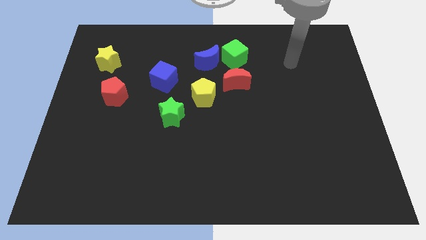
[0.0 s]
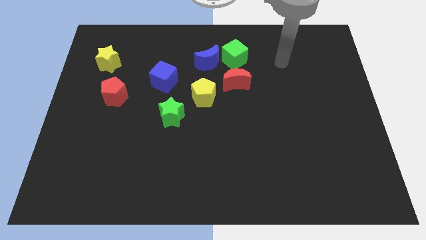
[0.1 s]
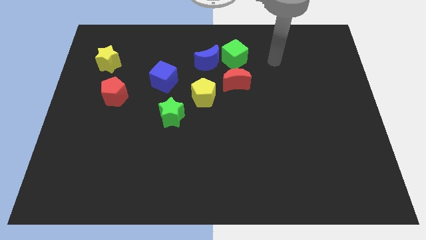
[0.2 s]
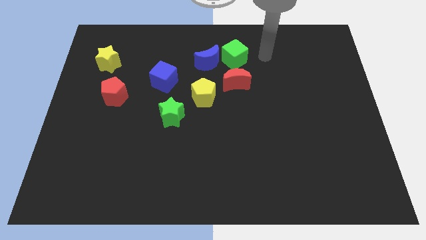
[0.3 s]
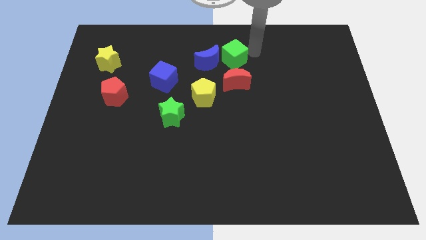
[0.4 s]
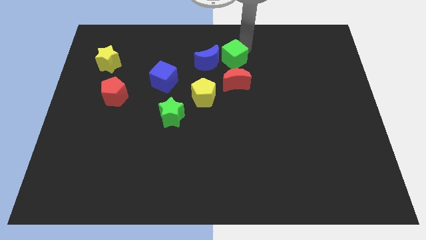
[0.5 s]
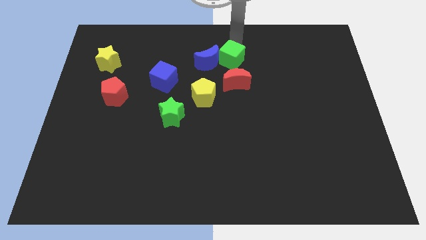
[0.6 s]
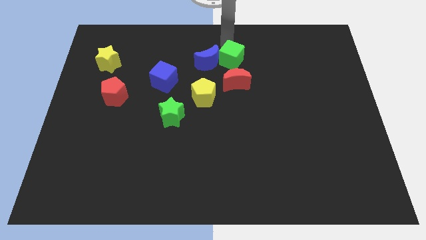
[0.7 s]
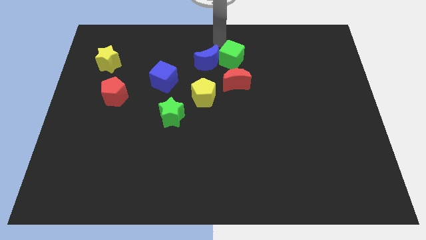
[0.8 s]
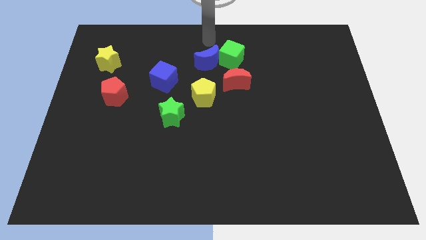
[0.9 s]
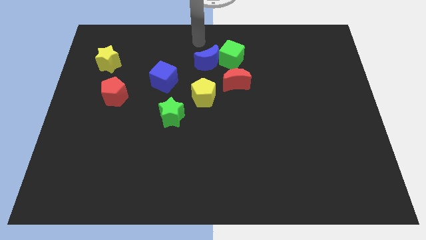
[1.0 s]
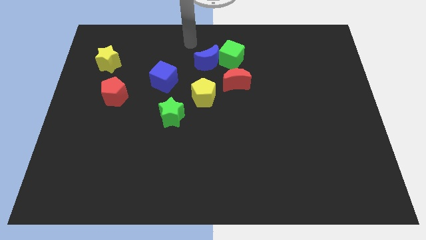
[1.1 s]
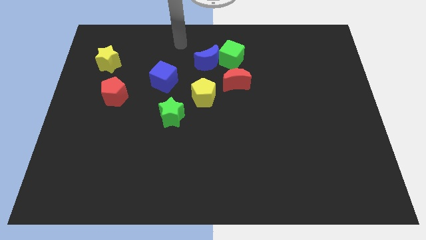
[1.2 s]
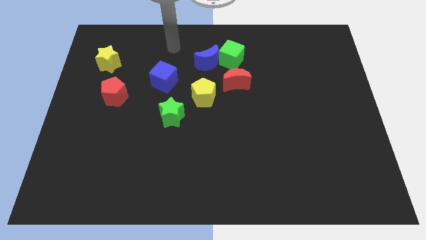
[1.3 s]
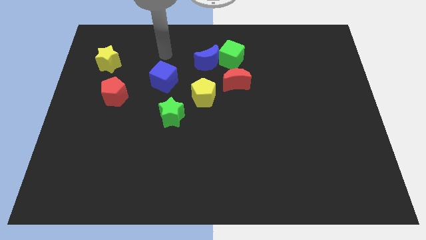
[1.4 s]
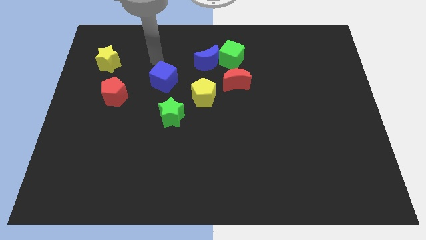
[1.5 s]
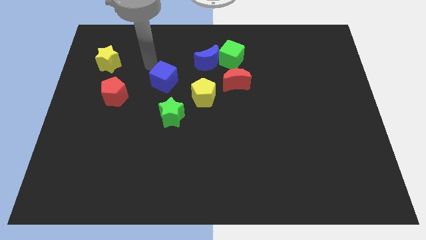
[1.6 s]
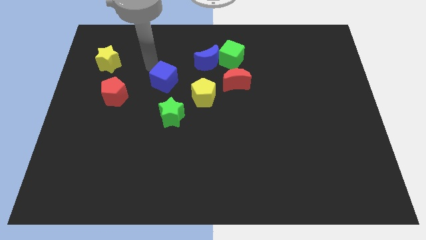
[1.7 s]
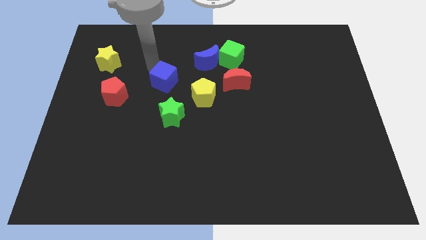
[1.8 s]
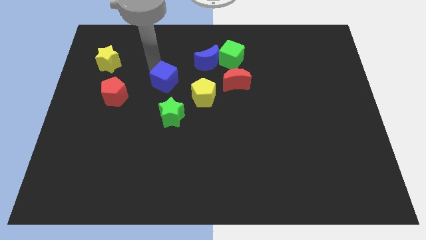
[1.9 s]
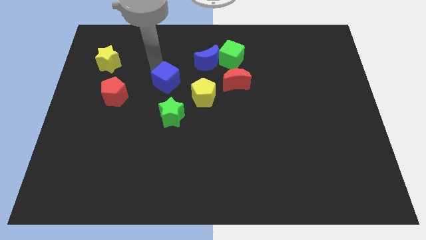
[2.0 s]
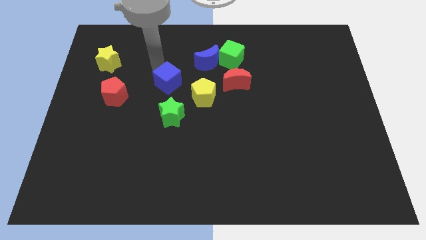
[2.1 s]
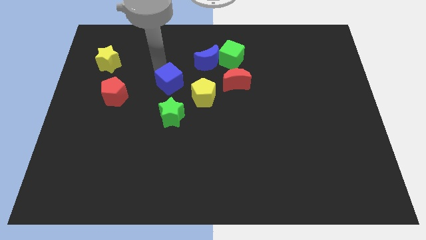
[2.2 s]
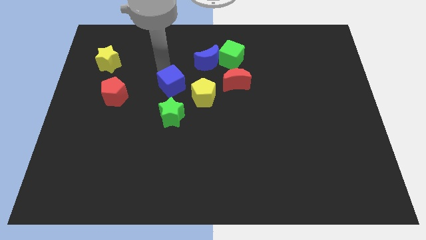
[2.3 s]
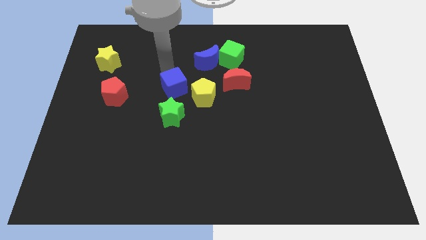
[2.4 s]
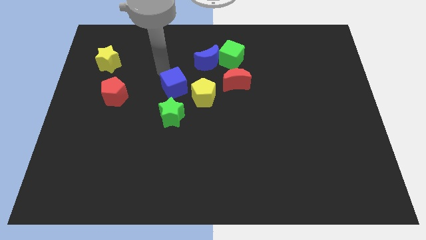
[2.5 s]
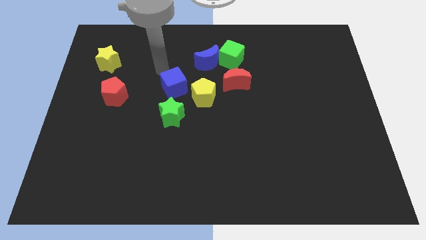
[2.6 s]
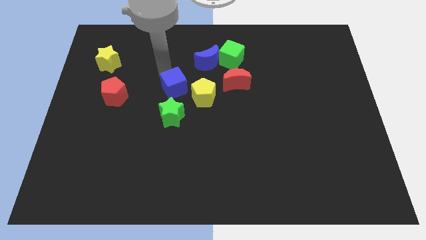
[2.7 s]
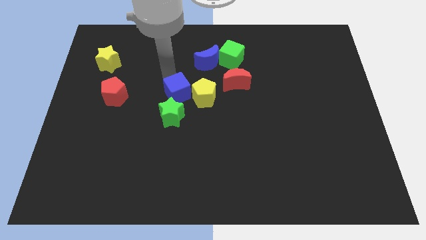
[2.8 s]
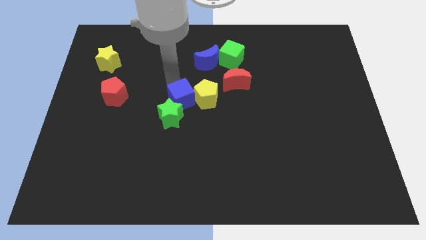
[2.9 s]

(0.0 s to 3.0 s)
move the blue cube somewhat diagonally downwards and to the right

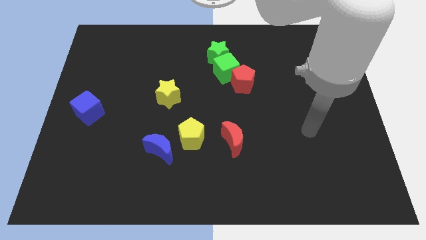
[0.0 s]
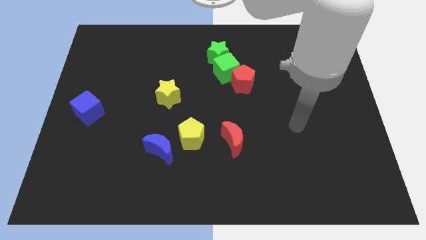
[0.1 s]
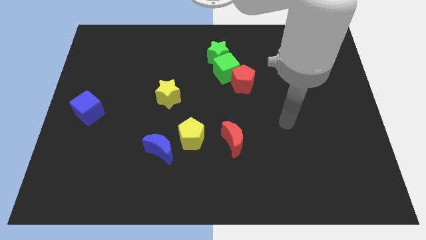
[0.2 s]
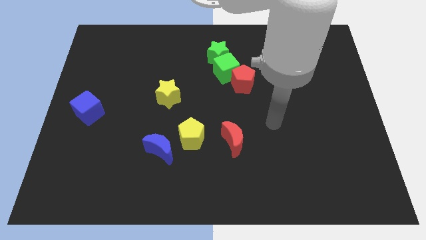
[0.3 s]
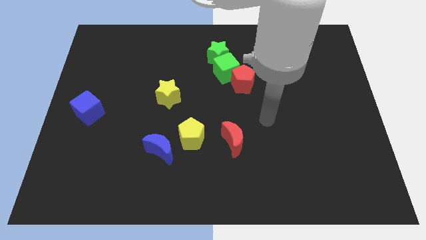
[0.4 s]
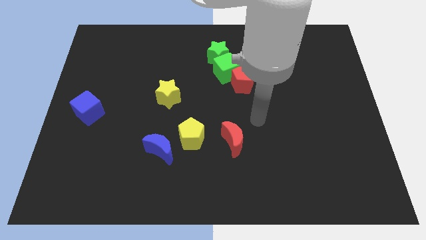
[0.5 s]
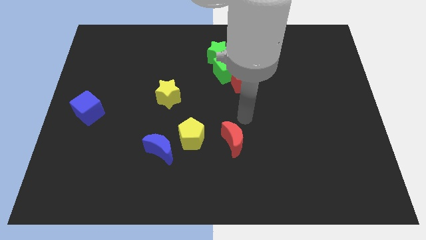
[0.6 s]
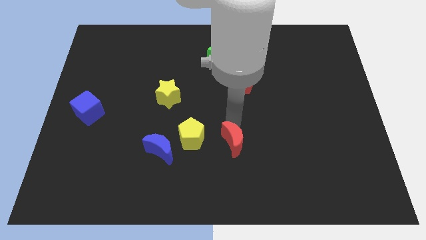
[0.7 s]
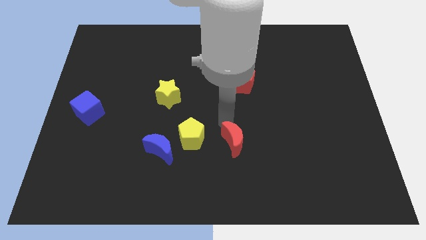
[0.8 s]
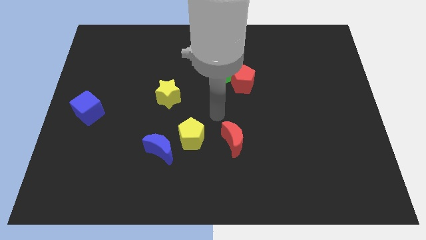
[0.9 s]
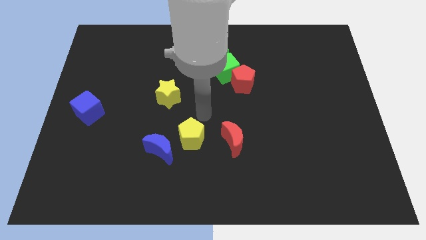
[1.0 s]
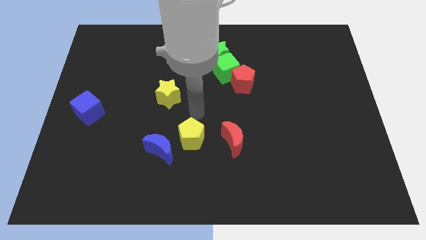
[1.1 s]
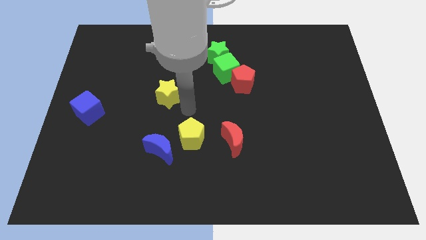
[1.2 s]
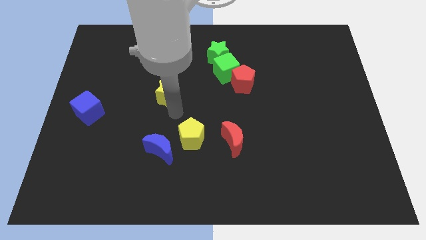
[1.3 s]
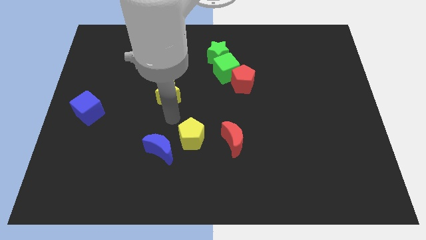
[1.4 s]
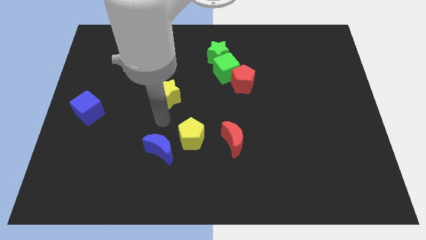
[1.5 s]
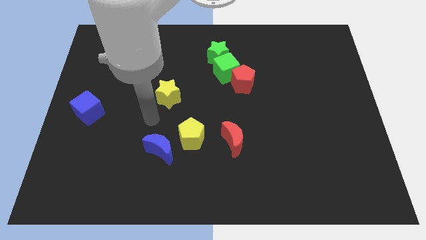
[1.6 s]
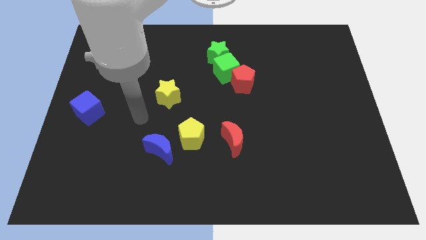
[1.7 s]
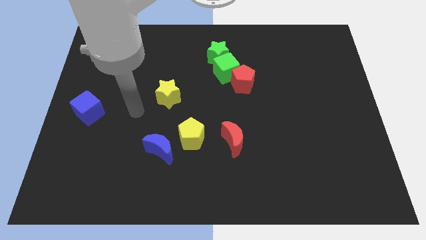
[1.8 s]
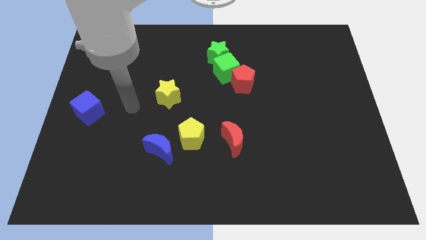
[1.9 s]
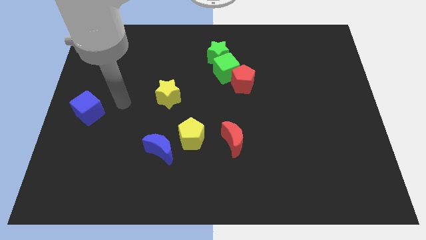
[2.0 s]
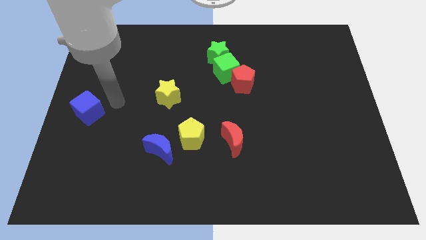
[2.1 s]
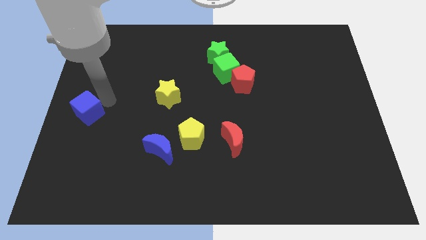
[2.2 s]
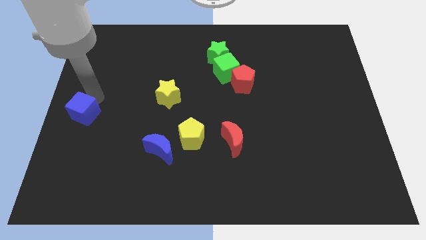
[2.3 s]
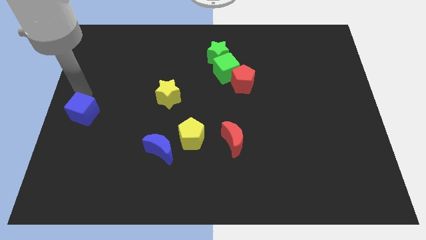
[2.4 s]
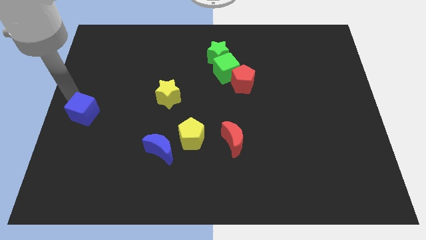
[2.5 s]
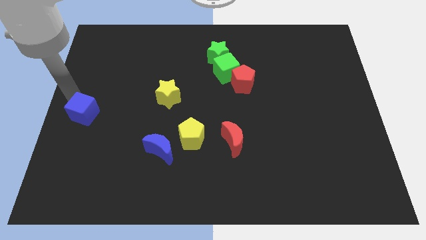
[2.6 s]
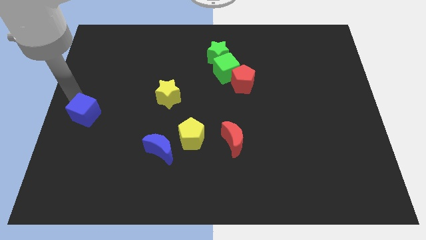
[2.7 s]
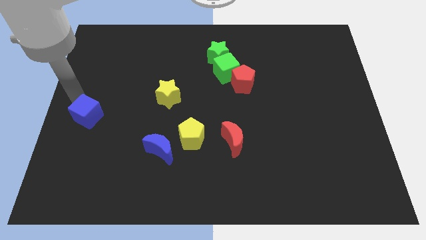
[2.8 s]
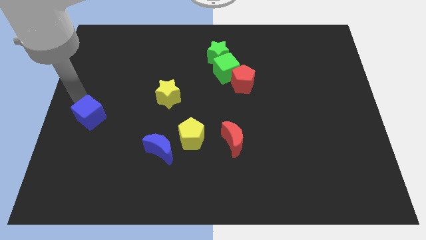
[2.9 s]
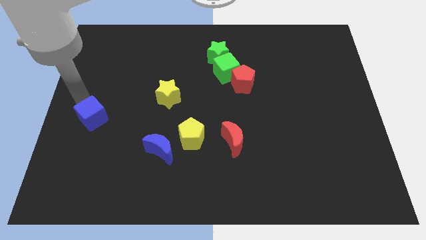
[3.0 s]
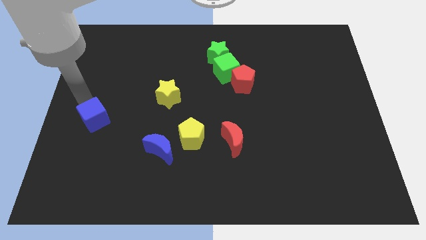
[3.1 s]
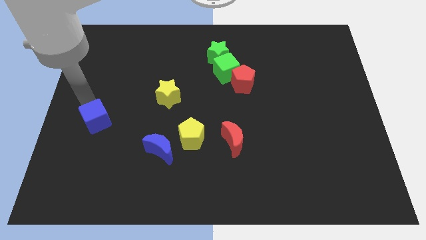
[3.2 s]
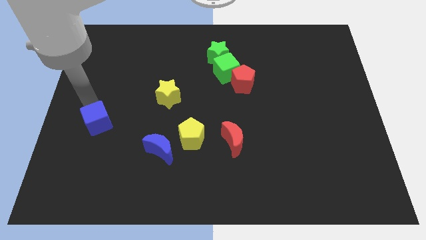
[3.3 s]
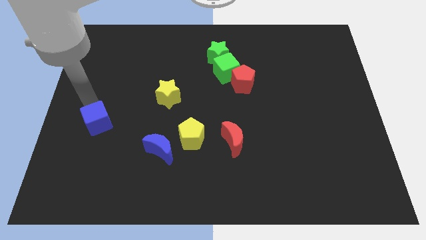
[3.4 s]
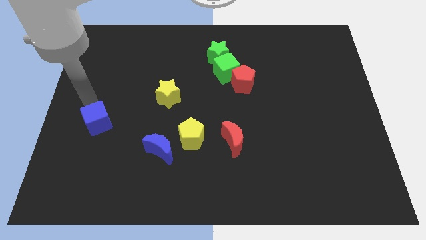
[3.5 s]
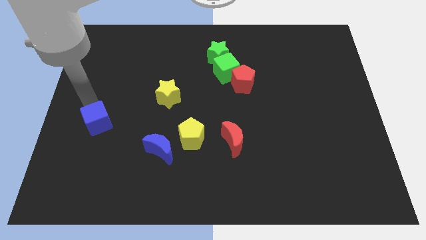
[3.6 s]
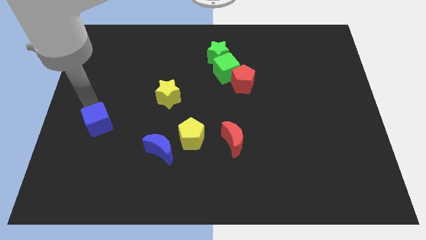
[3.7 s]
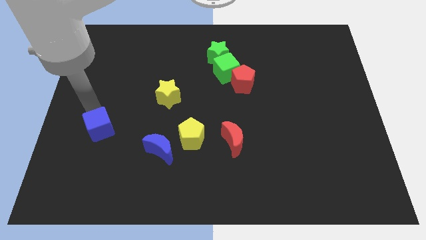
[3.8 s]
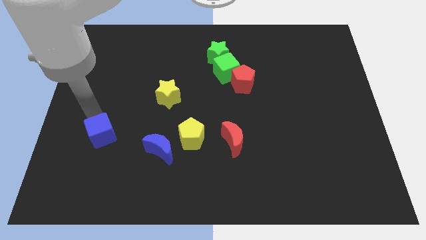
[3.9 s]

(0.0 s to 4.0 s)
slide the blue cube downwards and right a little bit

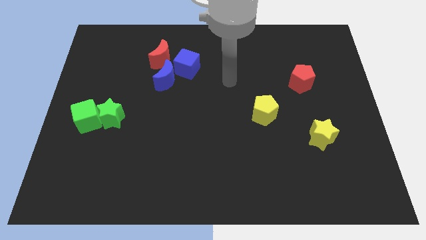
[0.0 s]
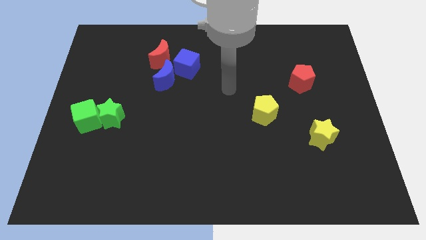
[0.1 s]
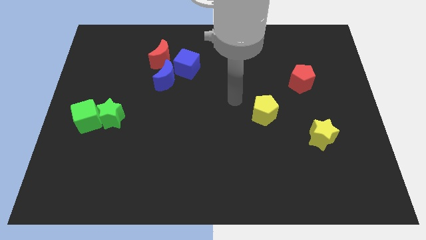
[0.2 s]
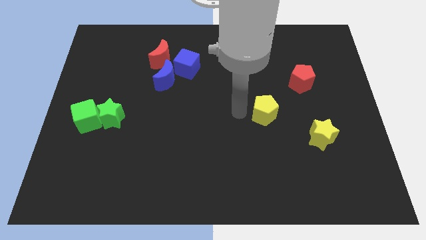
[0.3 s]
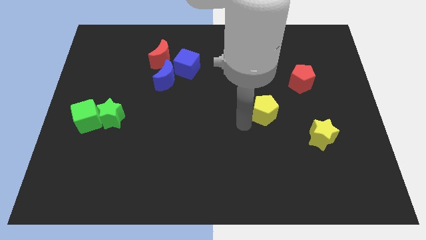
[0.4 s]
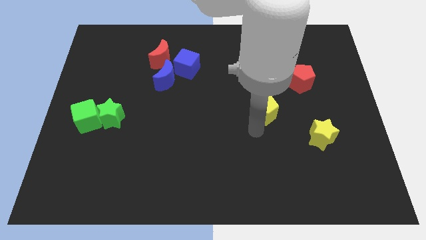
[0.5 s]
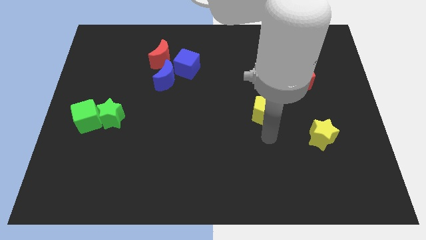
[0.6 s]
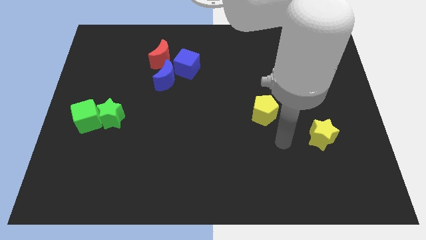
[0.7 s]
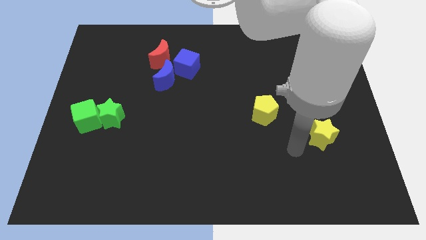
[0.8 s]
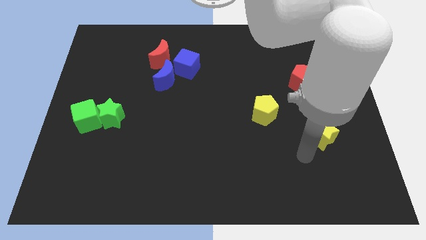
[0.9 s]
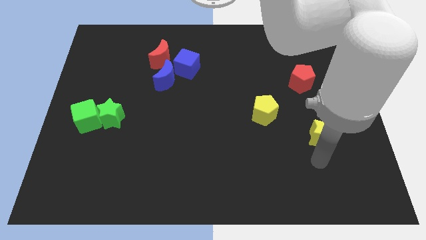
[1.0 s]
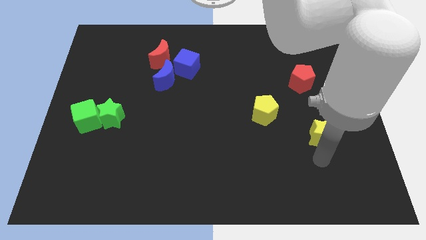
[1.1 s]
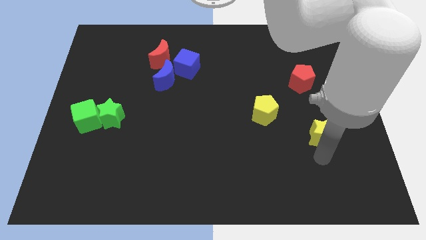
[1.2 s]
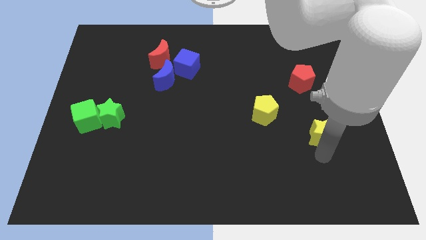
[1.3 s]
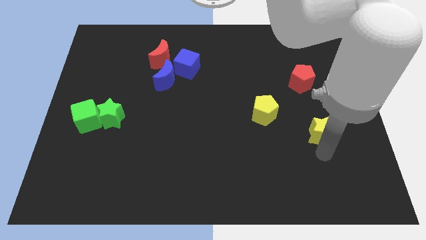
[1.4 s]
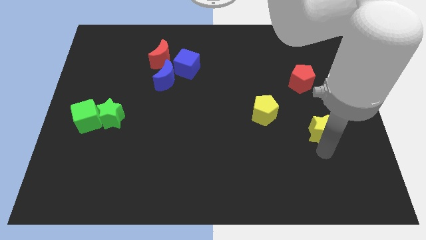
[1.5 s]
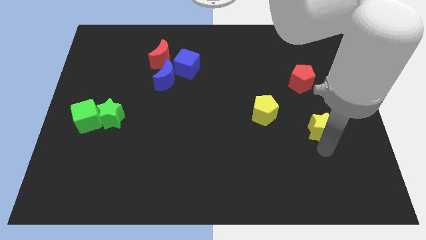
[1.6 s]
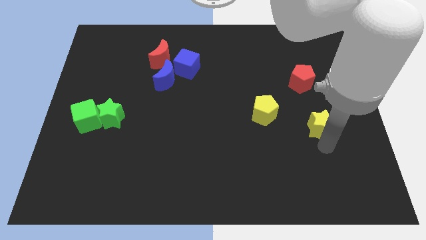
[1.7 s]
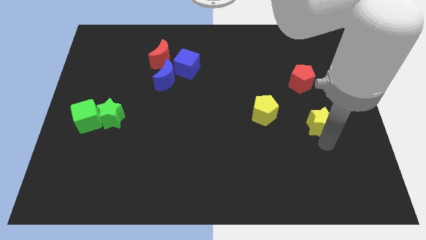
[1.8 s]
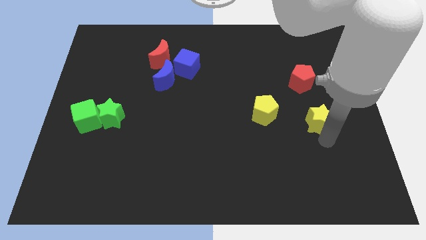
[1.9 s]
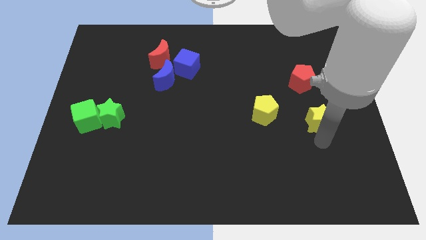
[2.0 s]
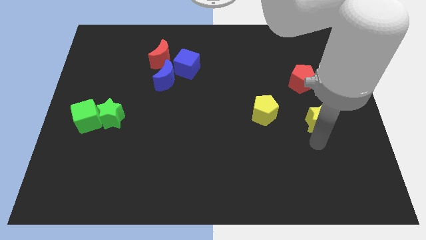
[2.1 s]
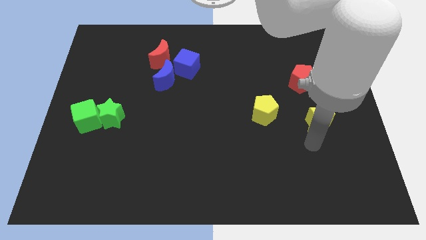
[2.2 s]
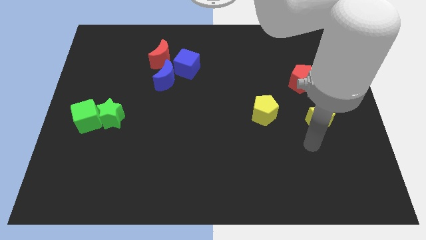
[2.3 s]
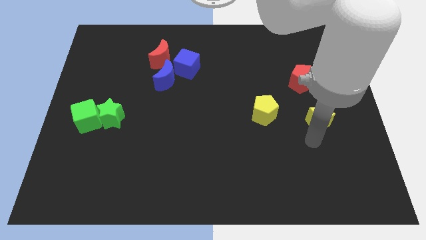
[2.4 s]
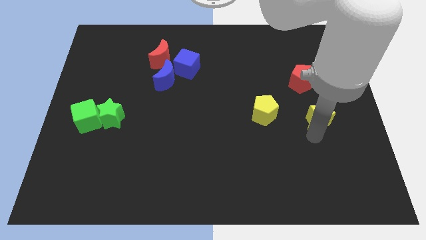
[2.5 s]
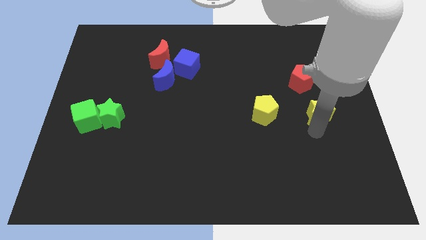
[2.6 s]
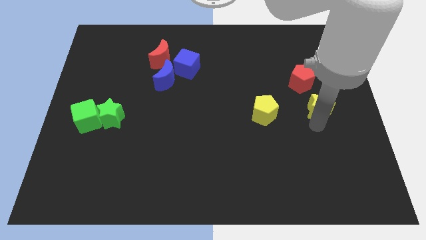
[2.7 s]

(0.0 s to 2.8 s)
slightly slide the yellow star up
